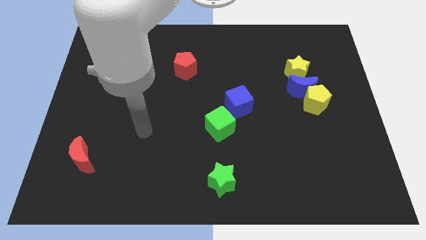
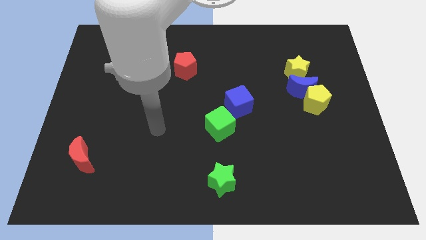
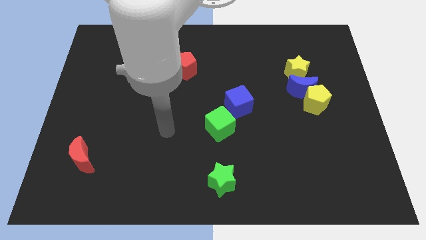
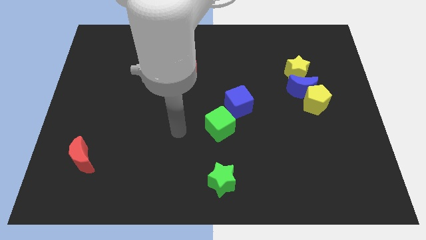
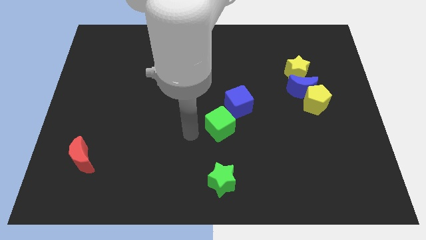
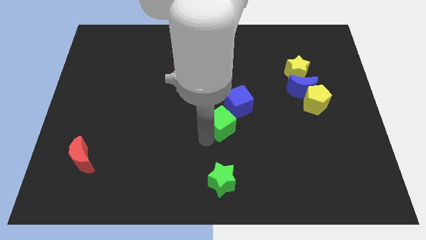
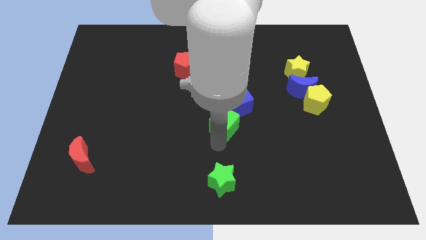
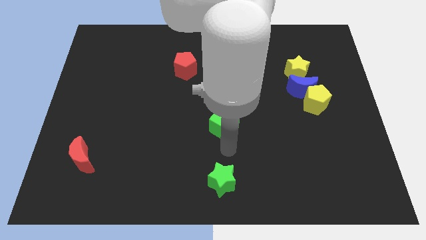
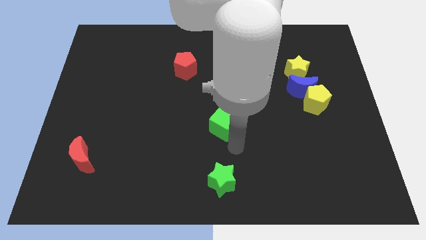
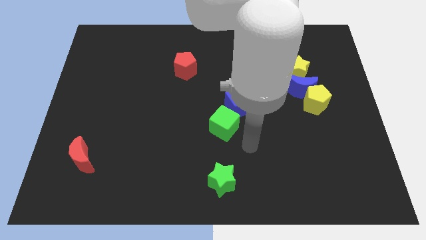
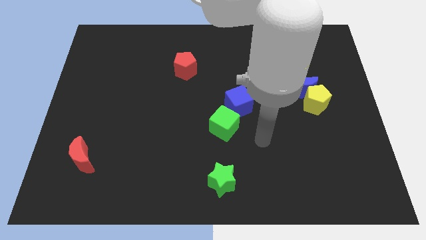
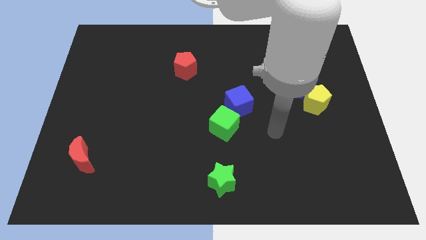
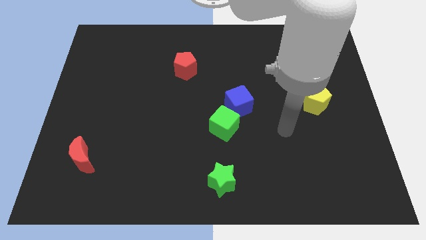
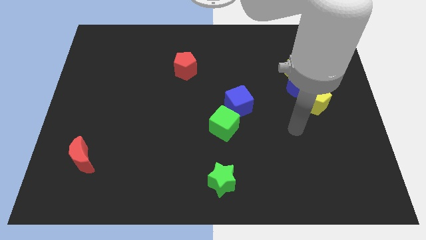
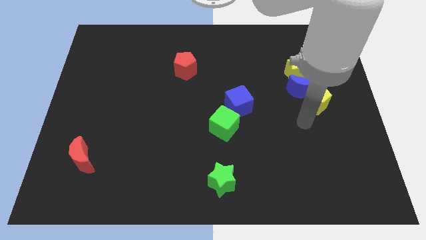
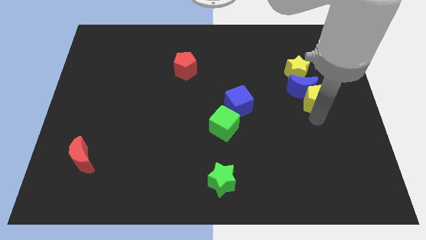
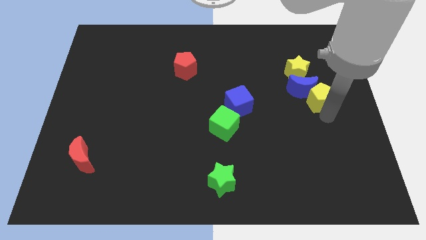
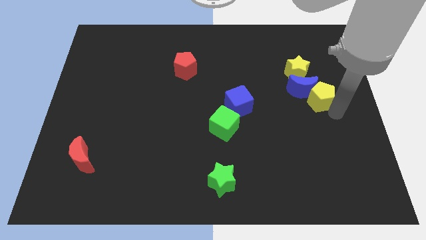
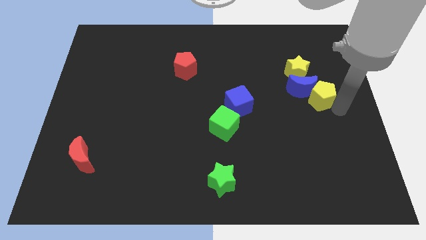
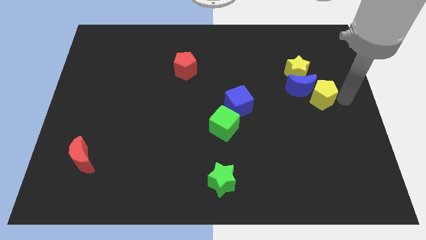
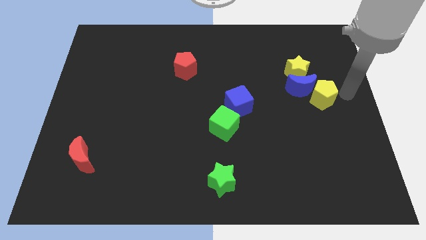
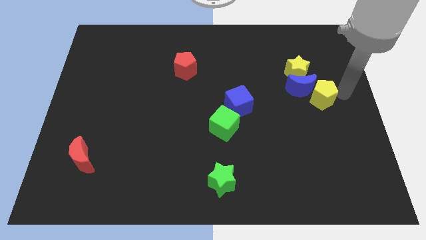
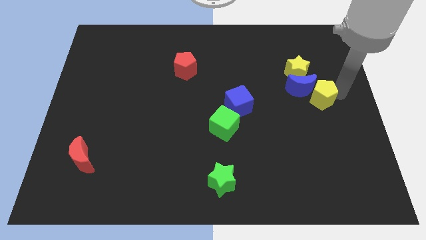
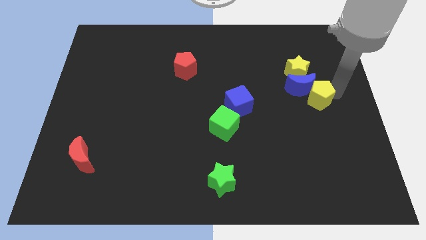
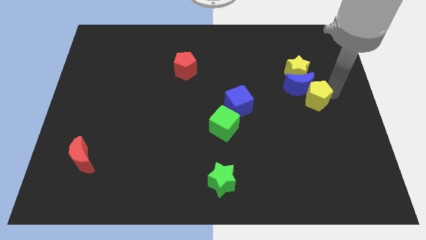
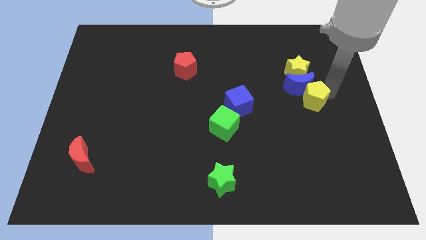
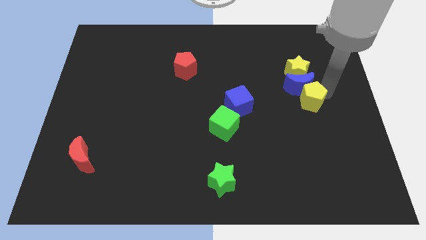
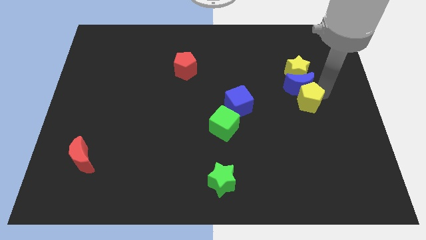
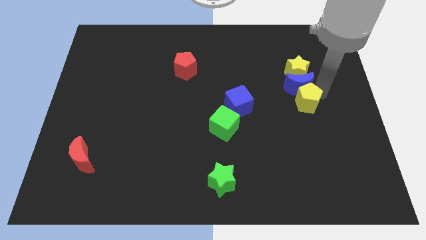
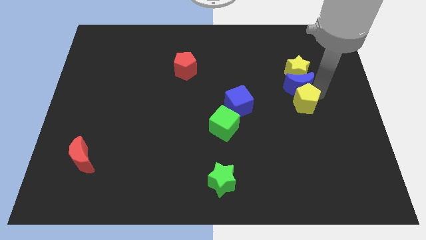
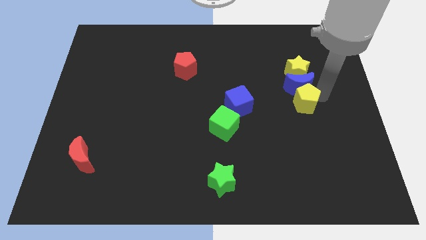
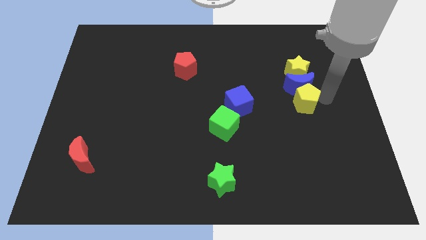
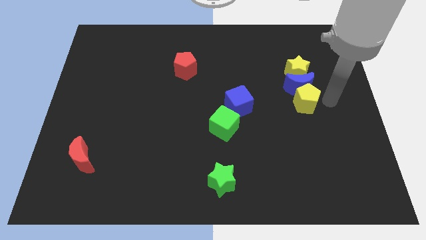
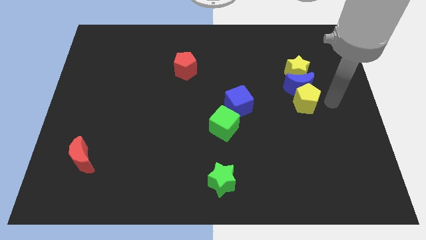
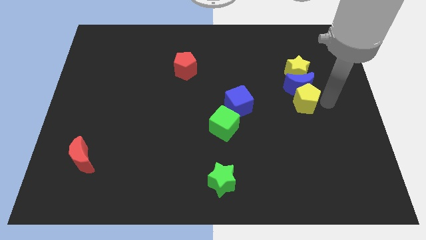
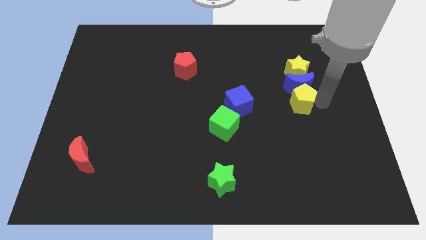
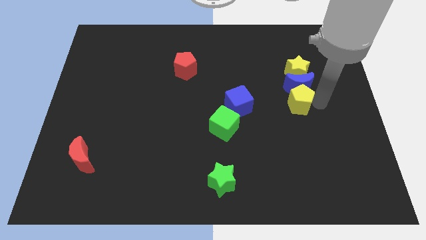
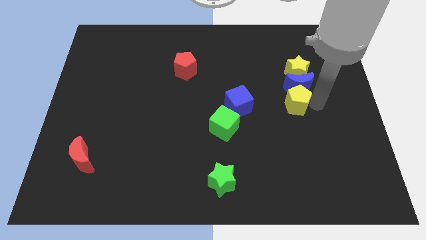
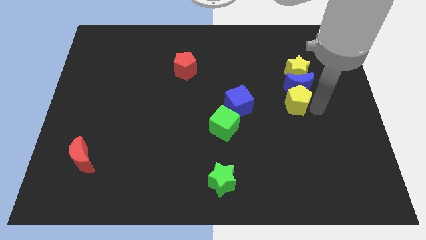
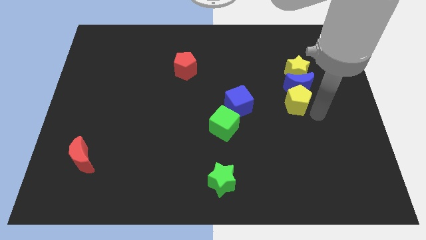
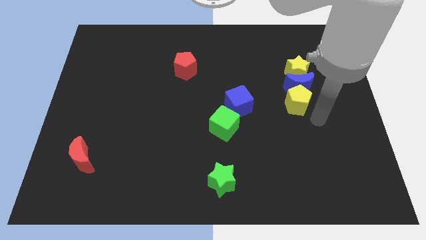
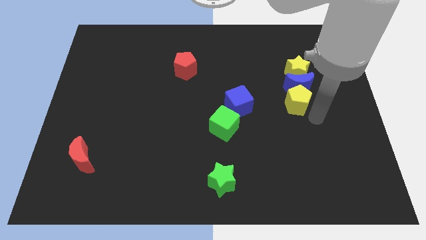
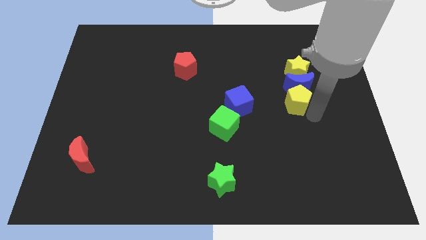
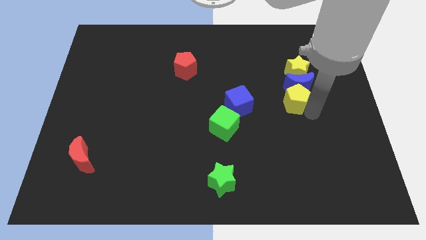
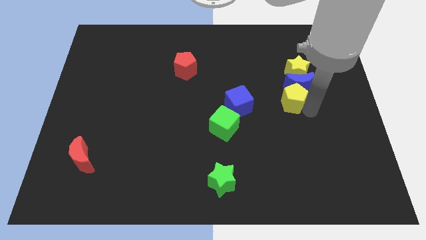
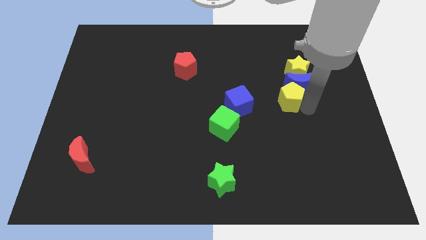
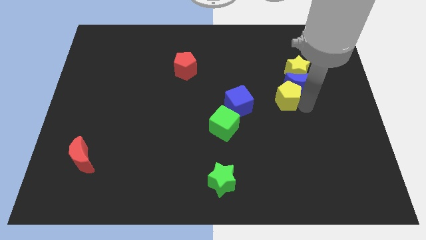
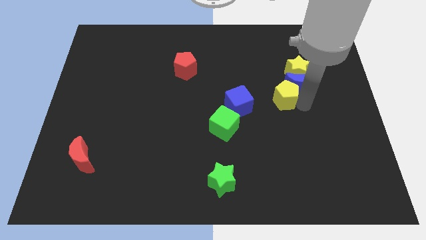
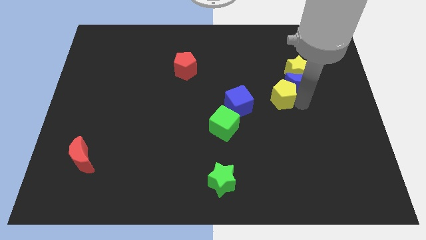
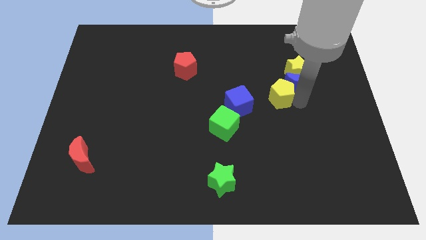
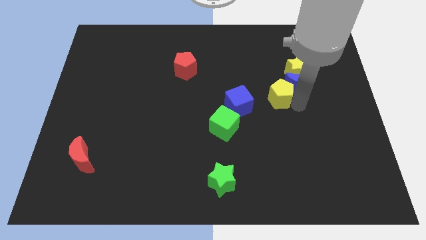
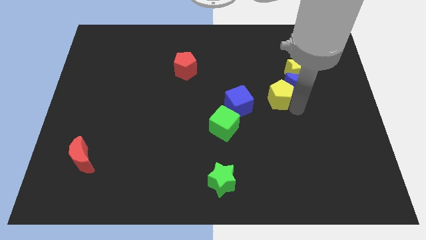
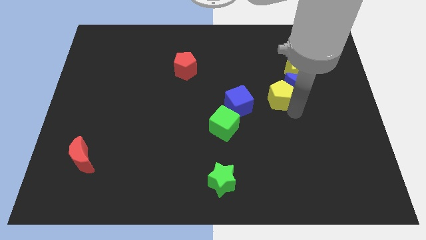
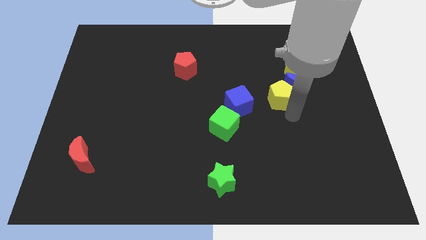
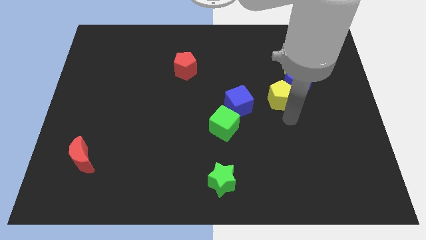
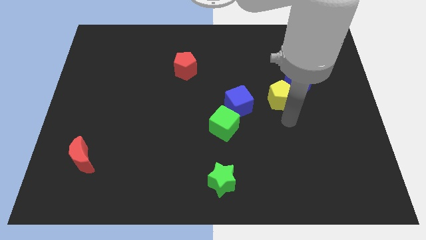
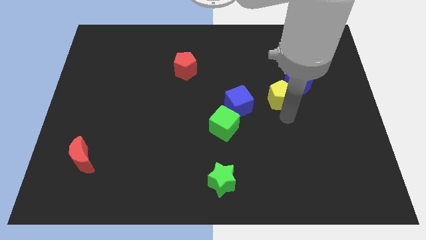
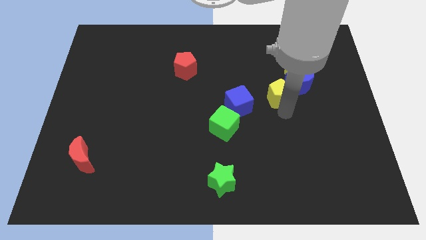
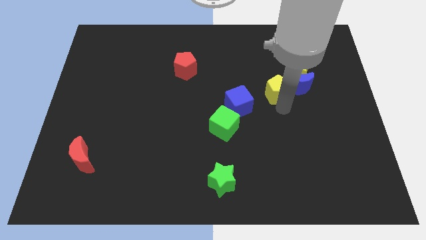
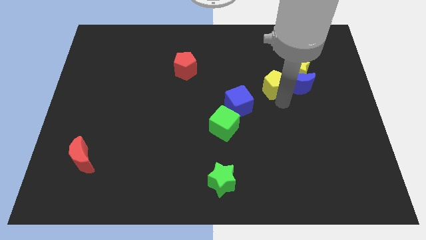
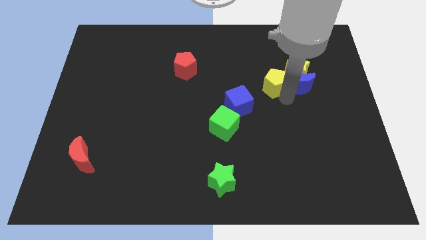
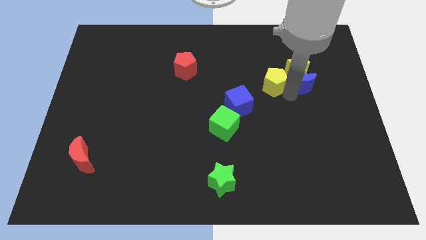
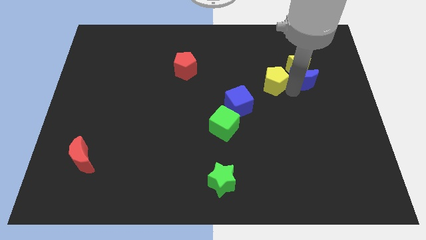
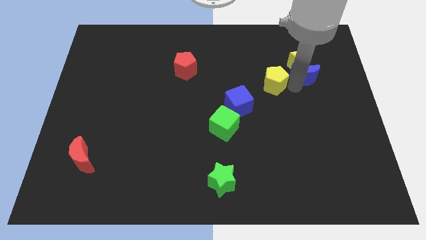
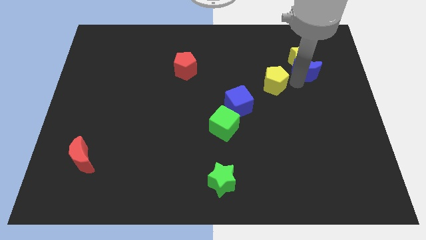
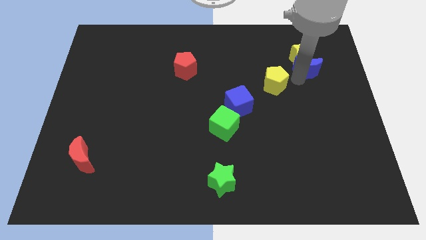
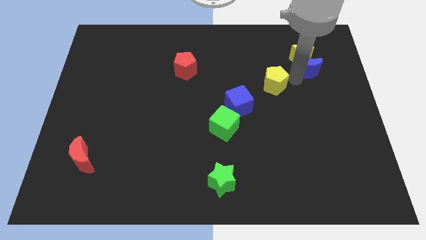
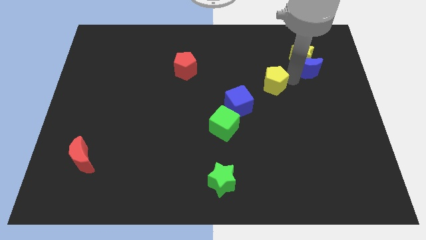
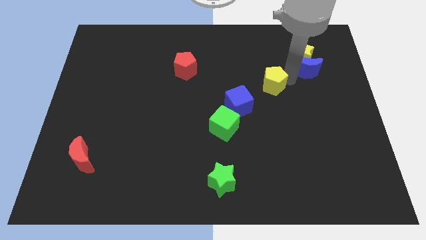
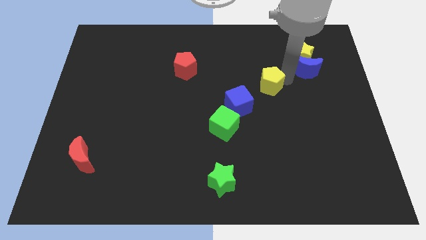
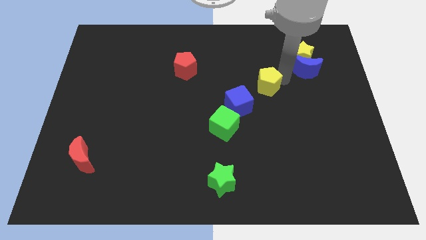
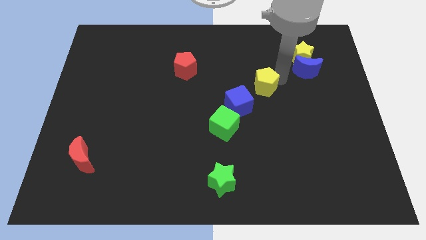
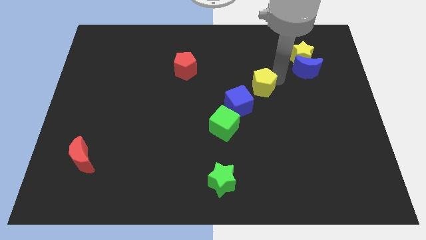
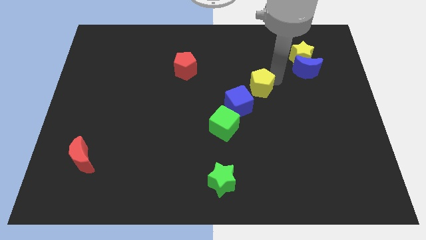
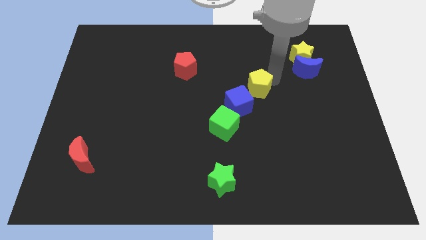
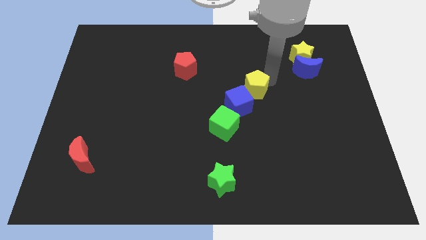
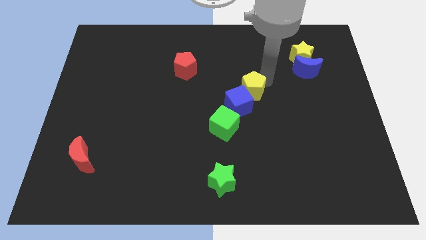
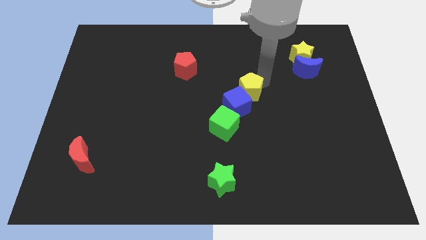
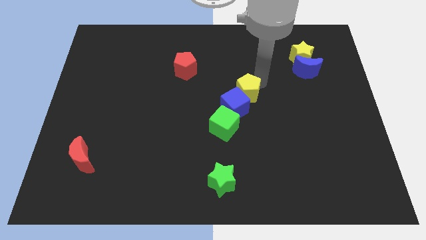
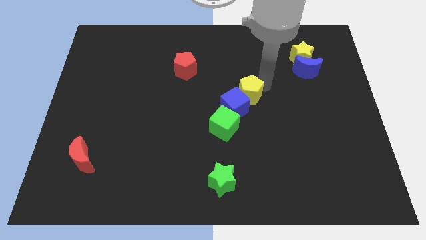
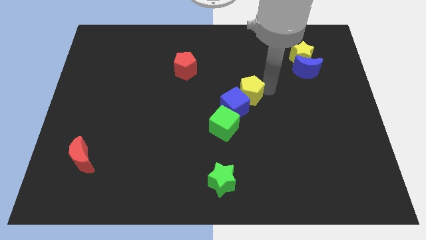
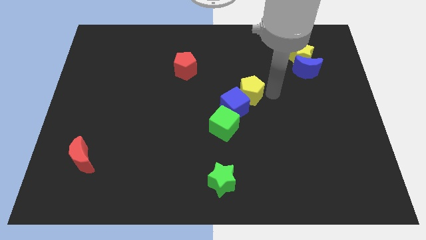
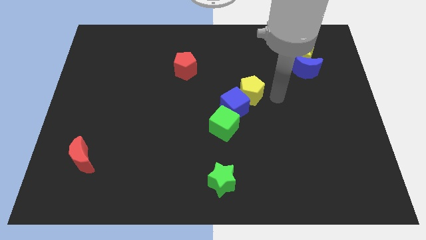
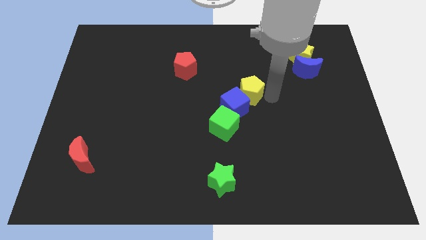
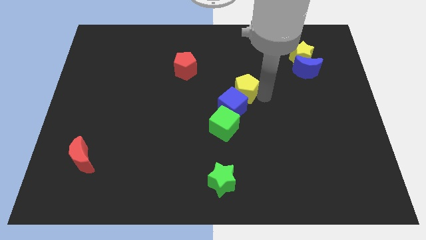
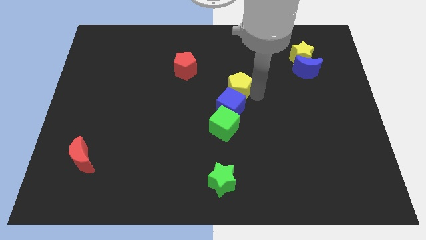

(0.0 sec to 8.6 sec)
slide the yellow pentagon above the green cube
